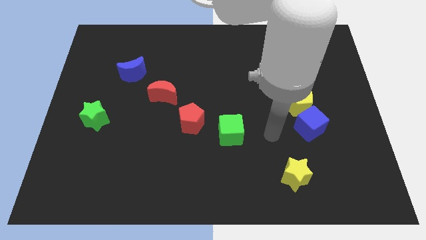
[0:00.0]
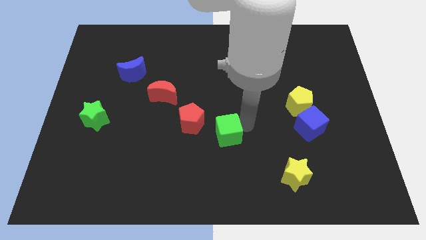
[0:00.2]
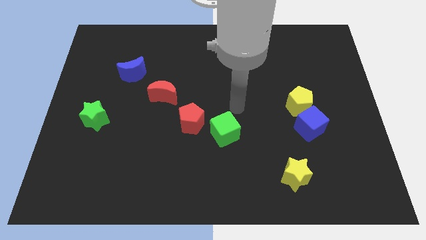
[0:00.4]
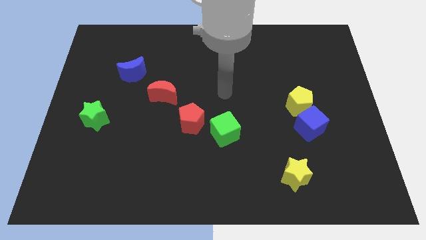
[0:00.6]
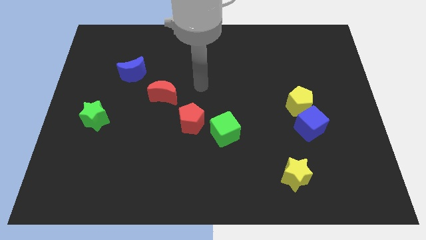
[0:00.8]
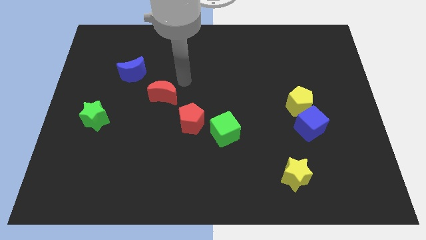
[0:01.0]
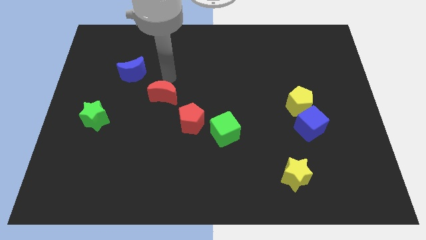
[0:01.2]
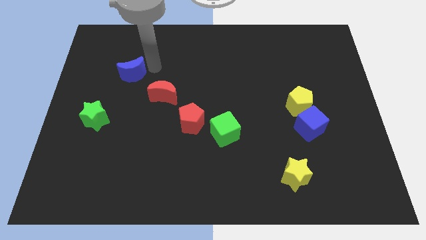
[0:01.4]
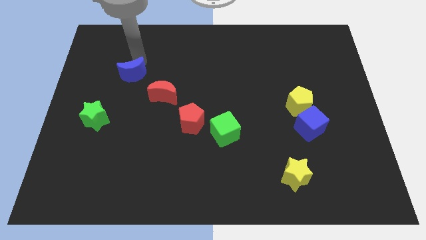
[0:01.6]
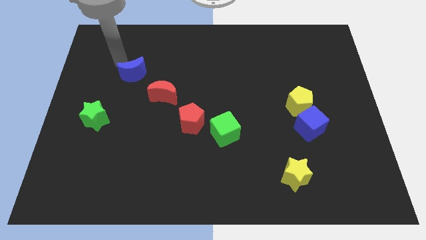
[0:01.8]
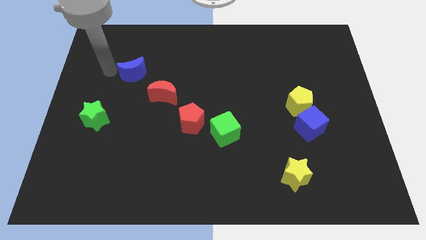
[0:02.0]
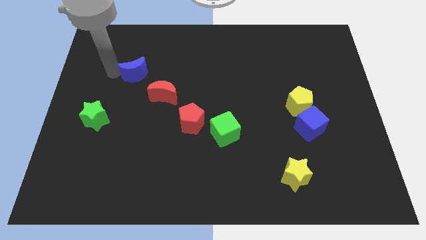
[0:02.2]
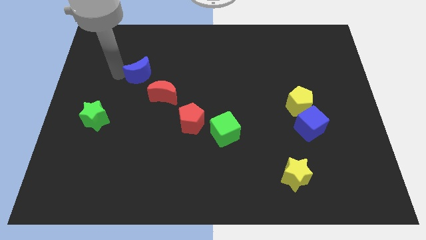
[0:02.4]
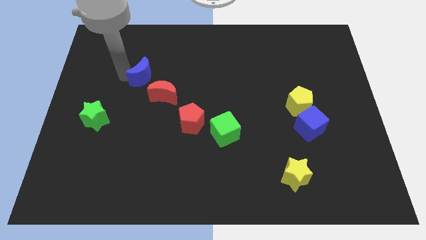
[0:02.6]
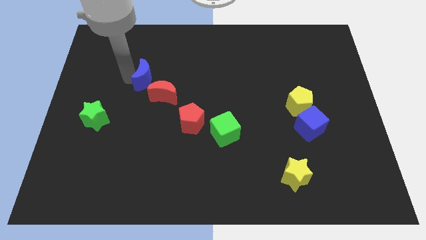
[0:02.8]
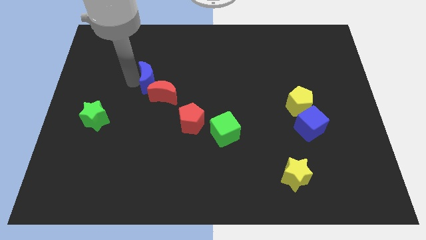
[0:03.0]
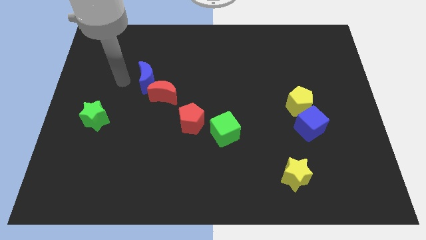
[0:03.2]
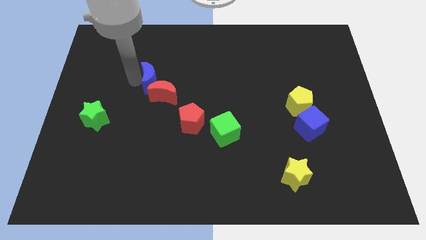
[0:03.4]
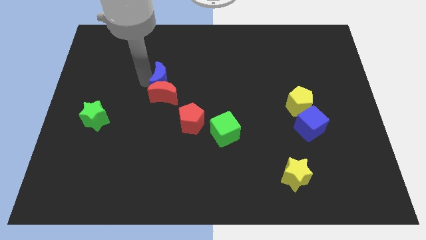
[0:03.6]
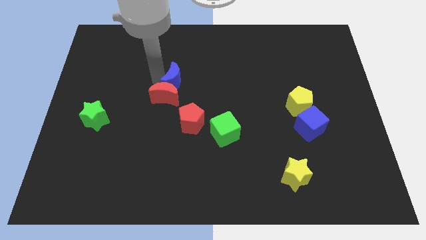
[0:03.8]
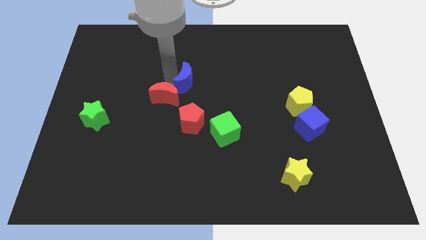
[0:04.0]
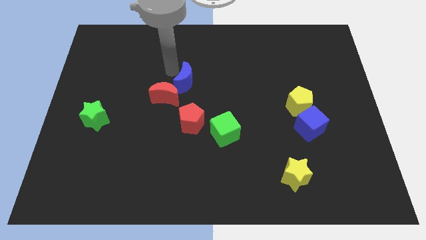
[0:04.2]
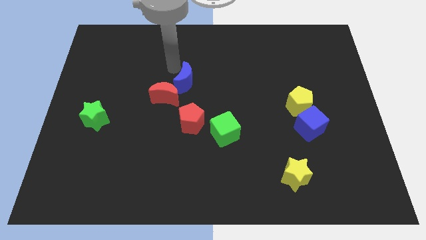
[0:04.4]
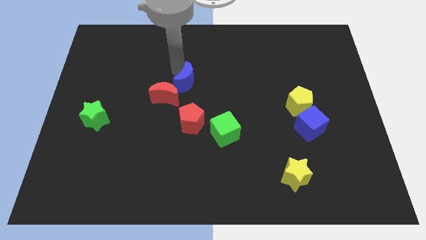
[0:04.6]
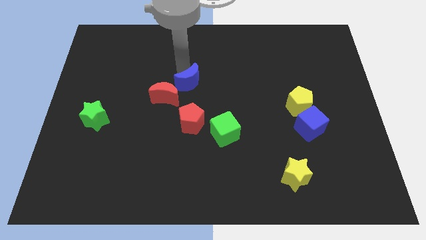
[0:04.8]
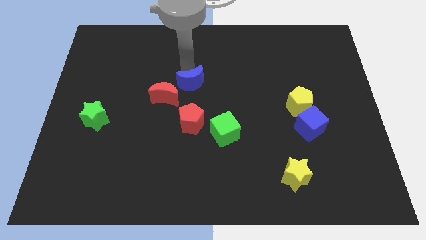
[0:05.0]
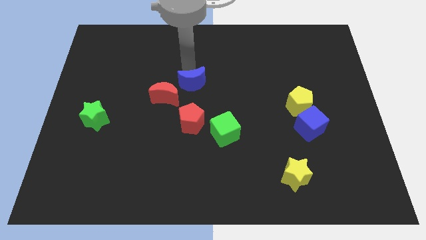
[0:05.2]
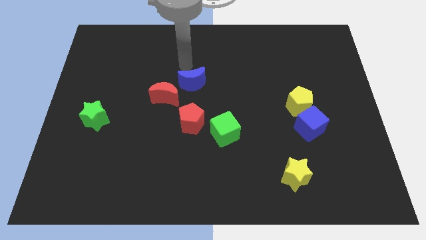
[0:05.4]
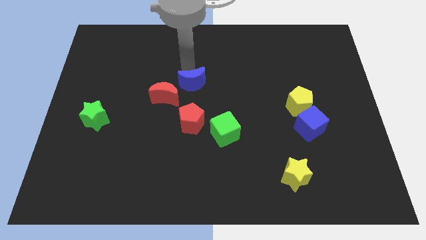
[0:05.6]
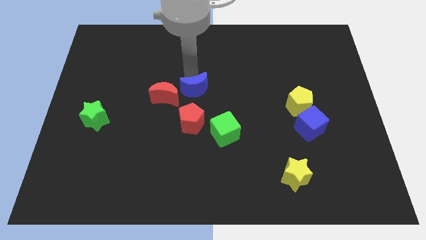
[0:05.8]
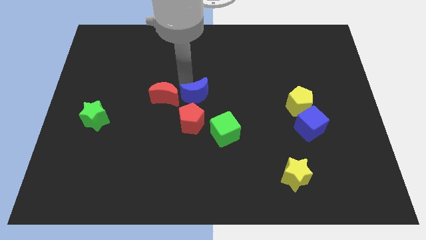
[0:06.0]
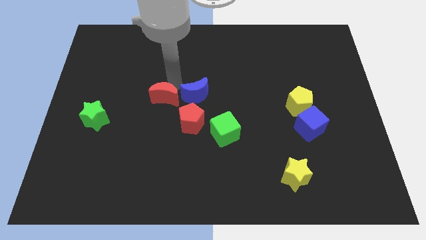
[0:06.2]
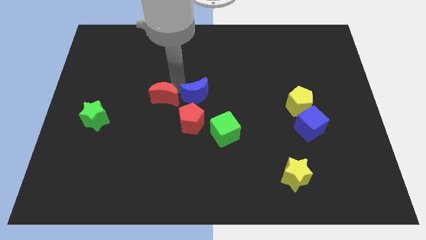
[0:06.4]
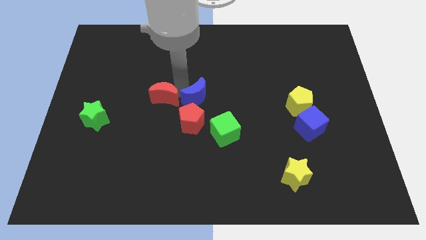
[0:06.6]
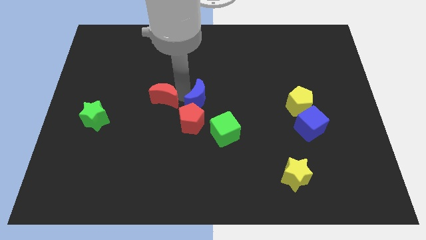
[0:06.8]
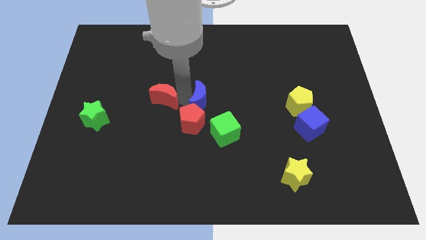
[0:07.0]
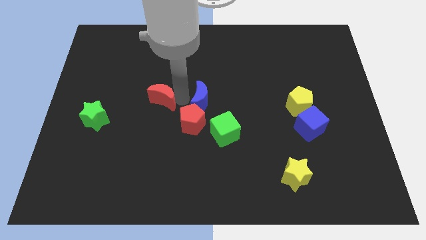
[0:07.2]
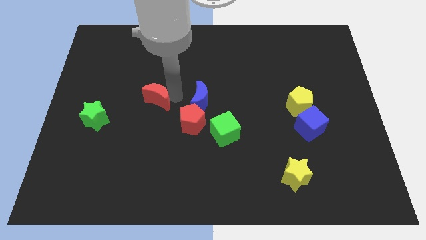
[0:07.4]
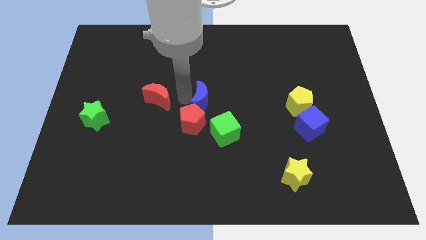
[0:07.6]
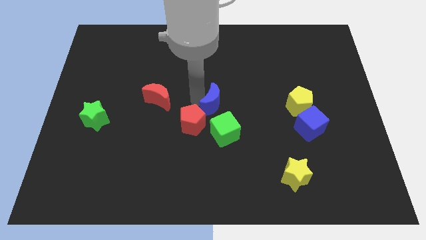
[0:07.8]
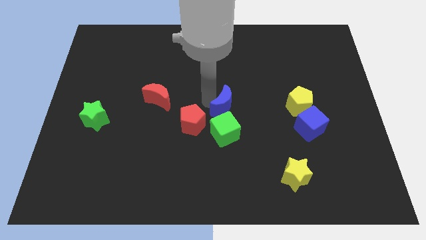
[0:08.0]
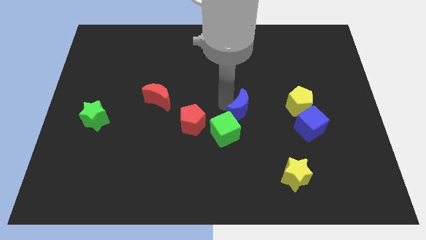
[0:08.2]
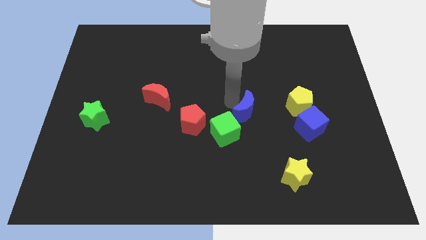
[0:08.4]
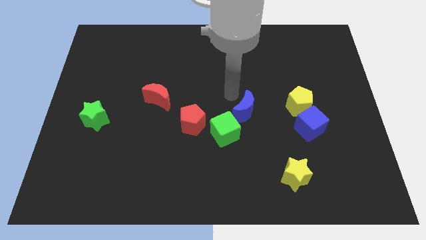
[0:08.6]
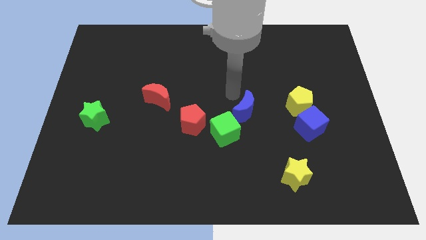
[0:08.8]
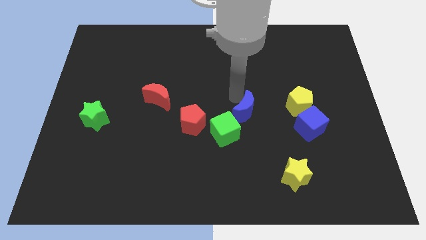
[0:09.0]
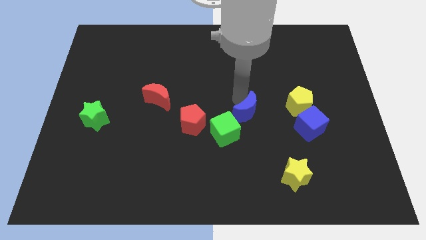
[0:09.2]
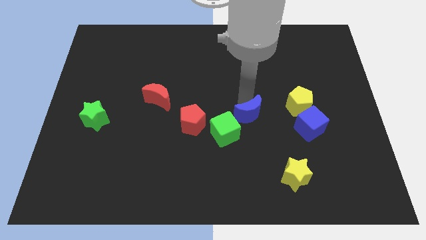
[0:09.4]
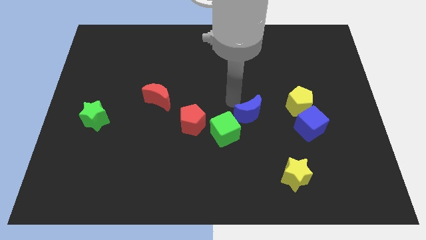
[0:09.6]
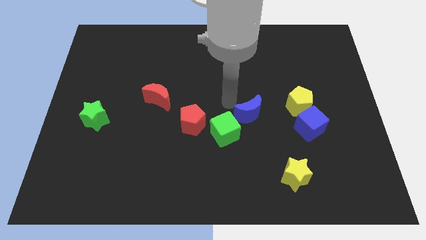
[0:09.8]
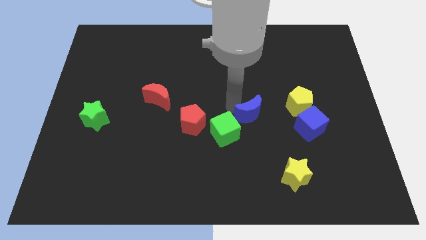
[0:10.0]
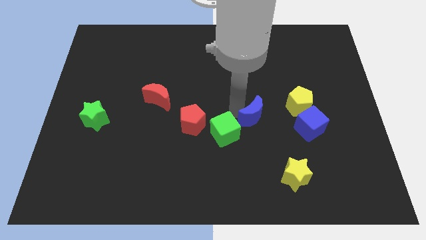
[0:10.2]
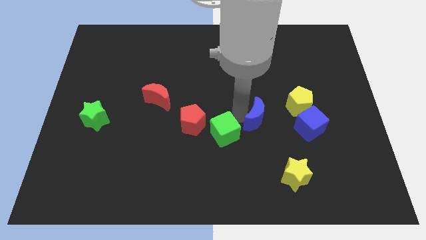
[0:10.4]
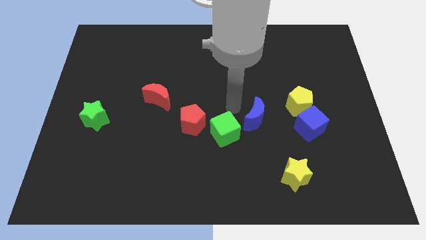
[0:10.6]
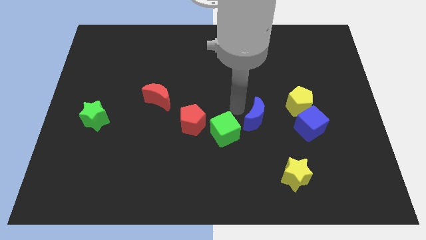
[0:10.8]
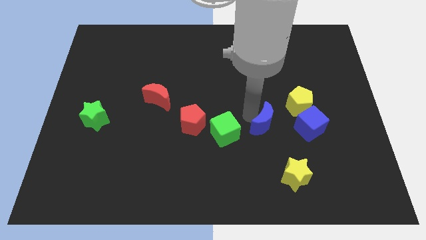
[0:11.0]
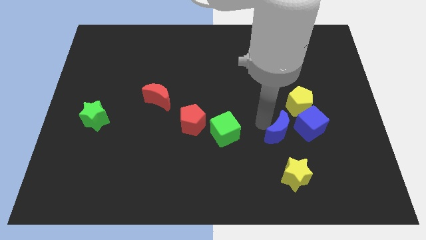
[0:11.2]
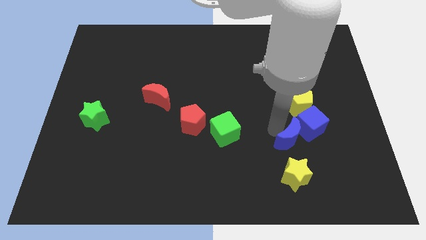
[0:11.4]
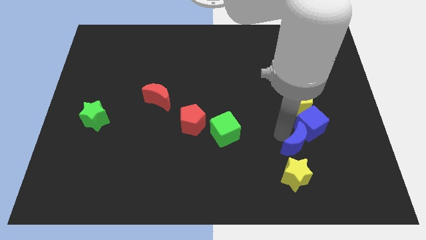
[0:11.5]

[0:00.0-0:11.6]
slide the blue moon to the top right side of the yellow star

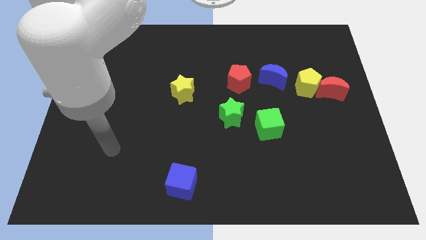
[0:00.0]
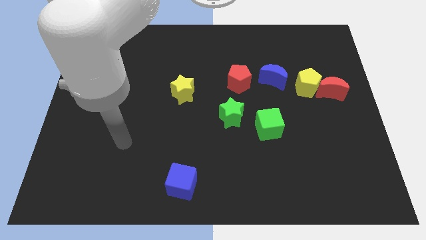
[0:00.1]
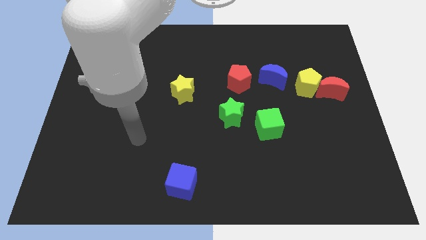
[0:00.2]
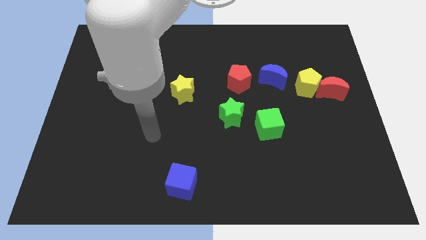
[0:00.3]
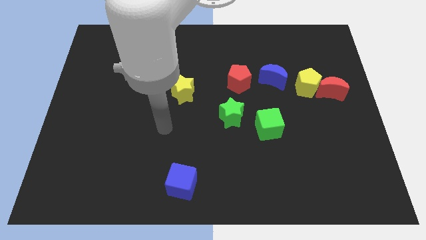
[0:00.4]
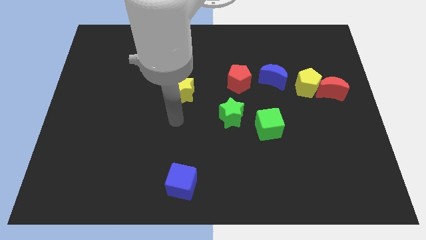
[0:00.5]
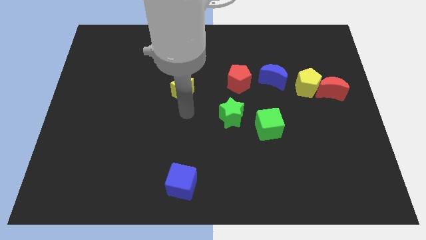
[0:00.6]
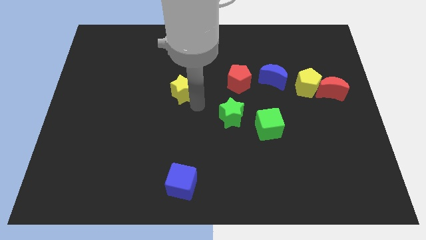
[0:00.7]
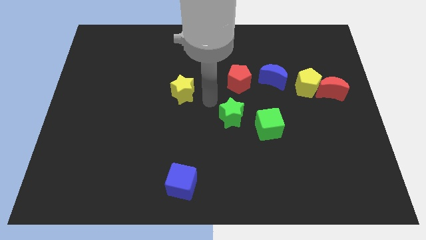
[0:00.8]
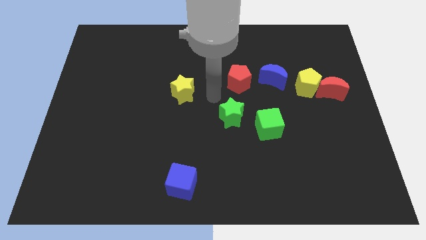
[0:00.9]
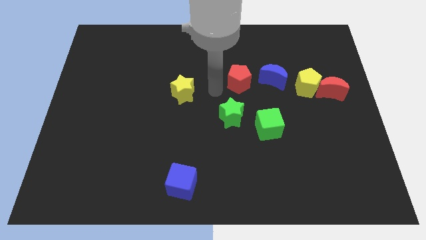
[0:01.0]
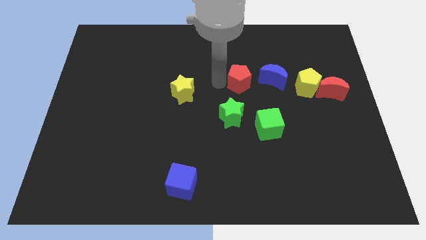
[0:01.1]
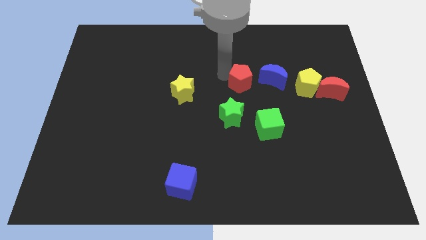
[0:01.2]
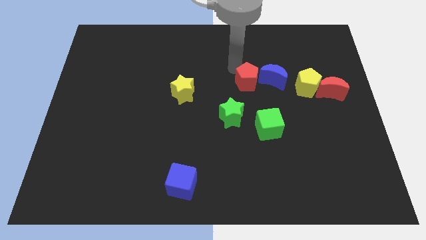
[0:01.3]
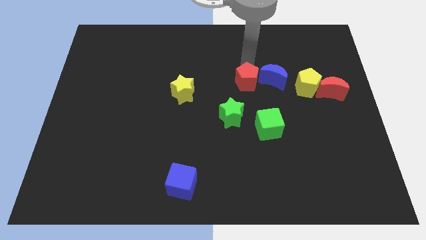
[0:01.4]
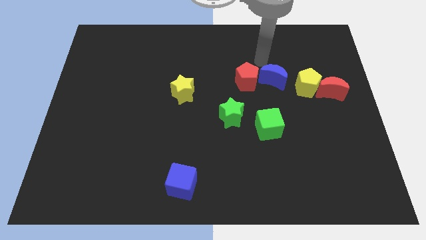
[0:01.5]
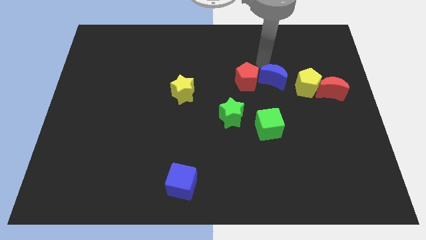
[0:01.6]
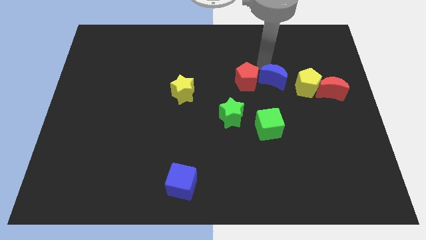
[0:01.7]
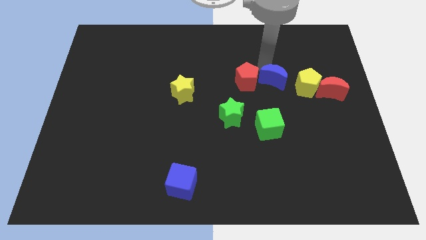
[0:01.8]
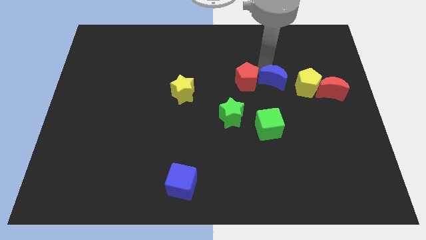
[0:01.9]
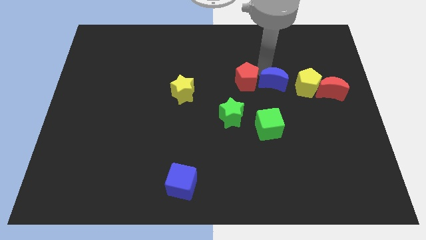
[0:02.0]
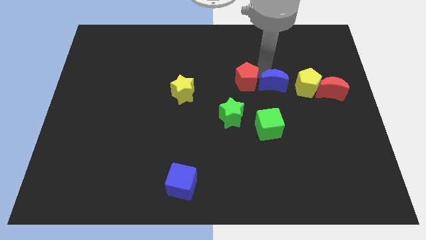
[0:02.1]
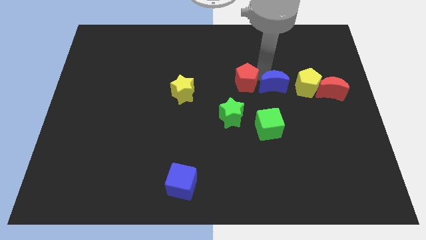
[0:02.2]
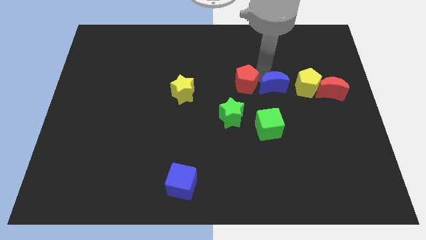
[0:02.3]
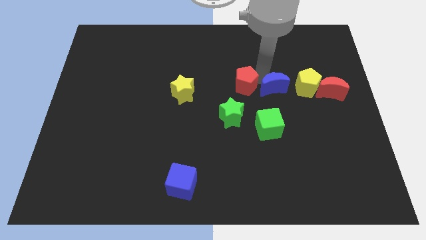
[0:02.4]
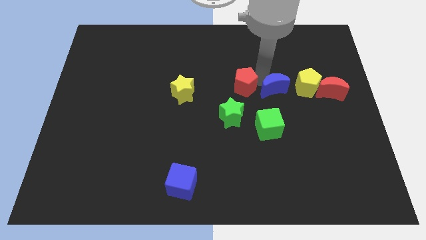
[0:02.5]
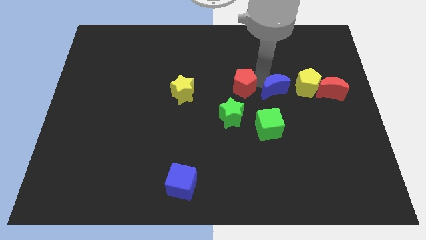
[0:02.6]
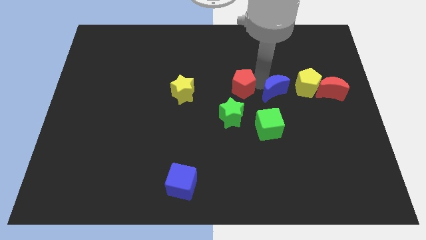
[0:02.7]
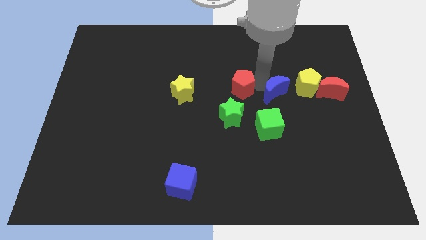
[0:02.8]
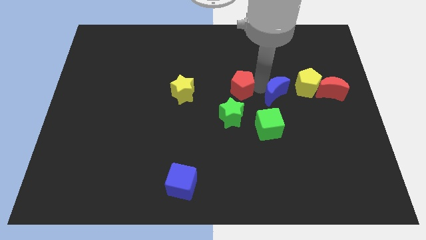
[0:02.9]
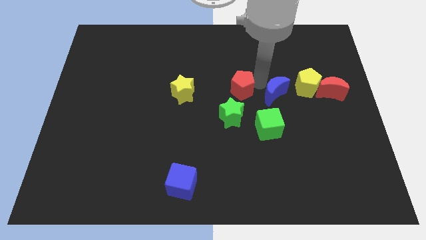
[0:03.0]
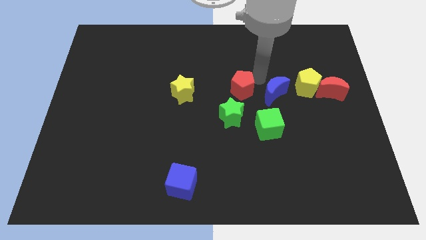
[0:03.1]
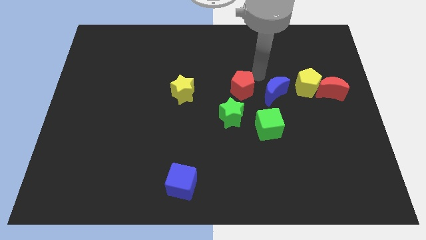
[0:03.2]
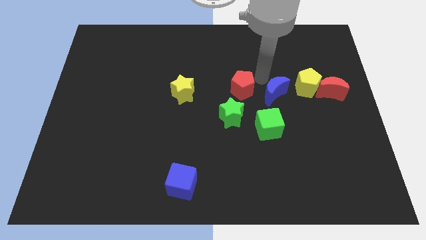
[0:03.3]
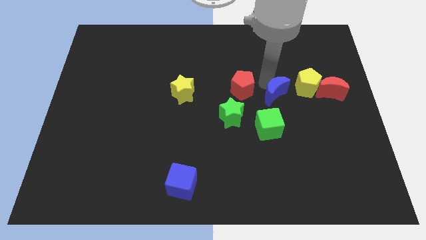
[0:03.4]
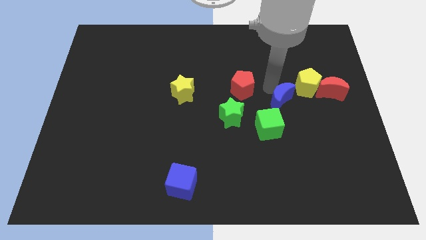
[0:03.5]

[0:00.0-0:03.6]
slide the blue moon to the top right of the green cube
